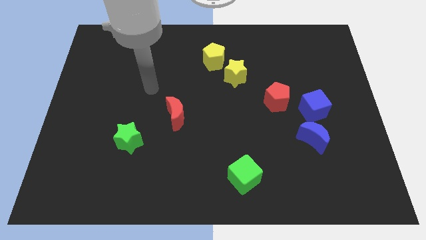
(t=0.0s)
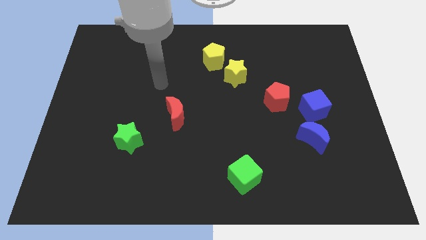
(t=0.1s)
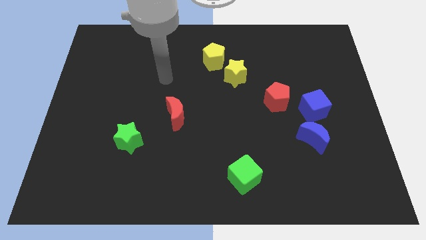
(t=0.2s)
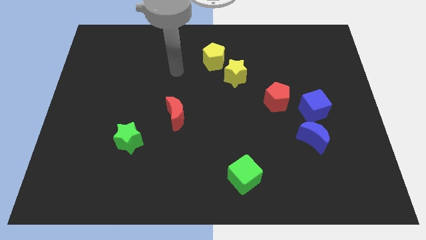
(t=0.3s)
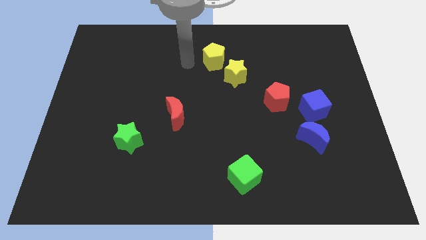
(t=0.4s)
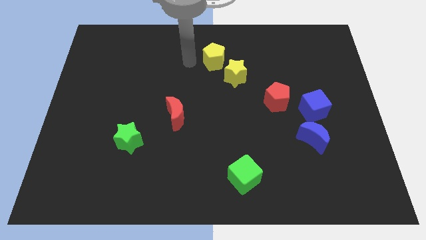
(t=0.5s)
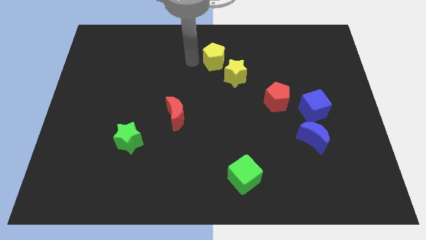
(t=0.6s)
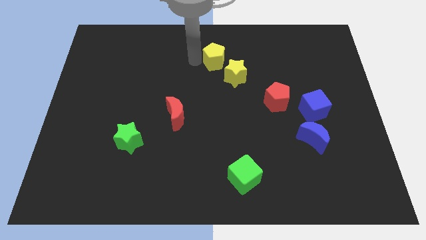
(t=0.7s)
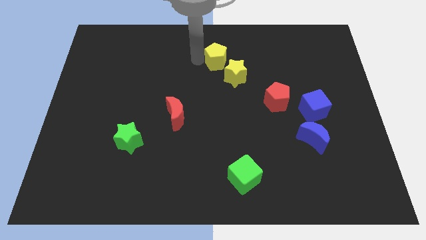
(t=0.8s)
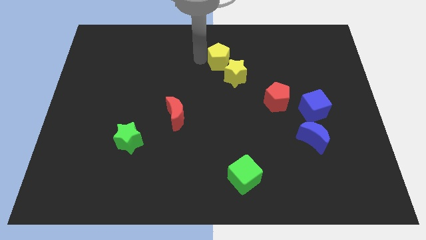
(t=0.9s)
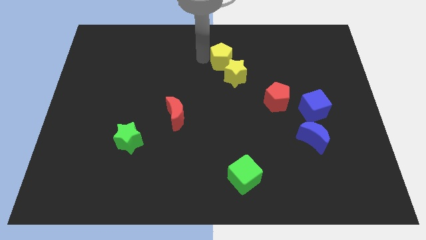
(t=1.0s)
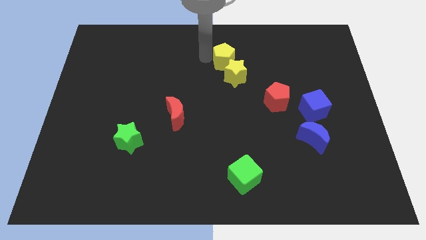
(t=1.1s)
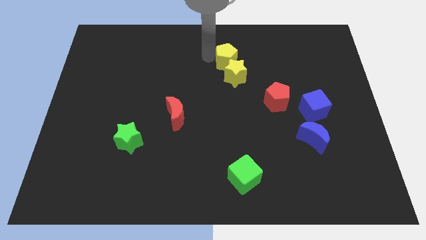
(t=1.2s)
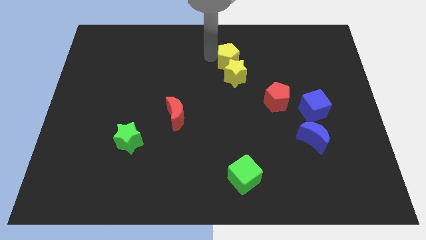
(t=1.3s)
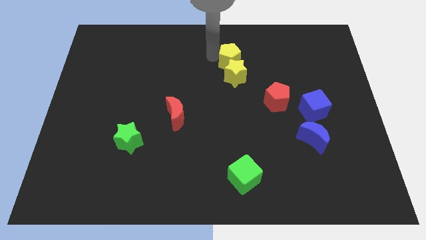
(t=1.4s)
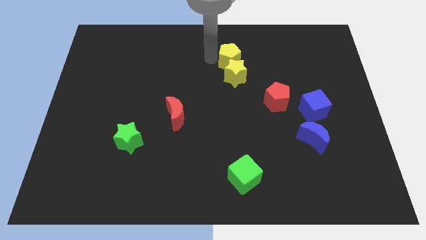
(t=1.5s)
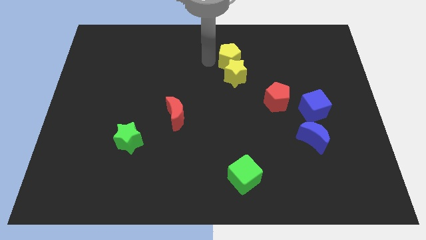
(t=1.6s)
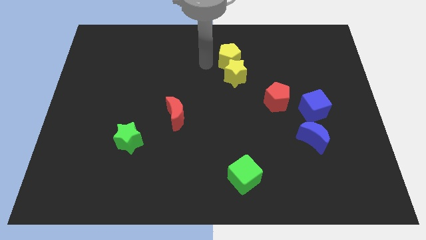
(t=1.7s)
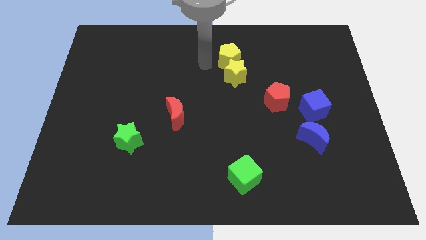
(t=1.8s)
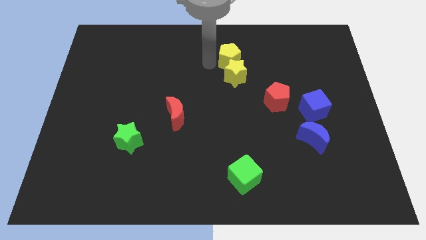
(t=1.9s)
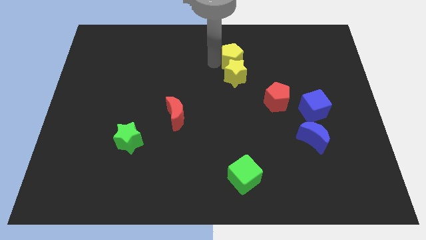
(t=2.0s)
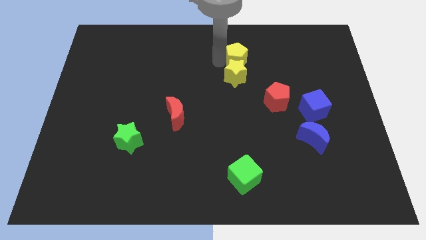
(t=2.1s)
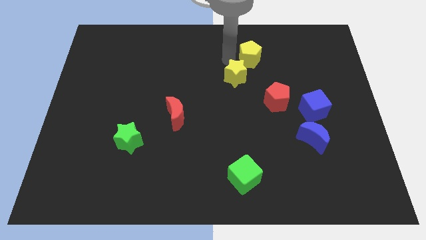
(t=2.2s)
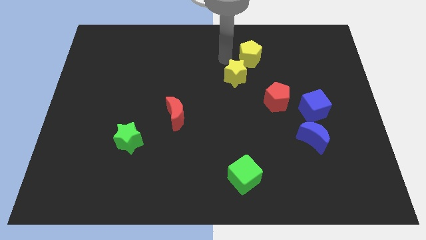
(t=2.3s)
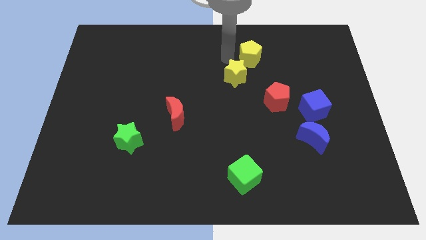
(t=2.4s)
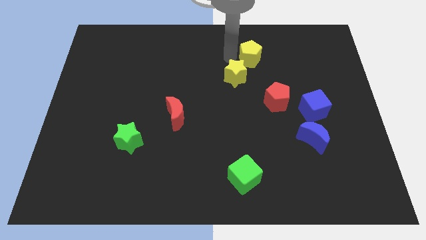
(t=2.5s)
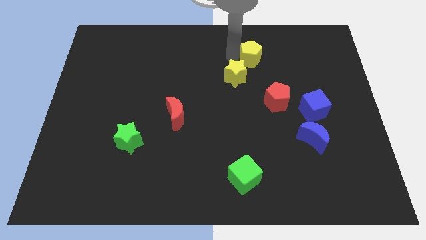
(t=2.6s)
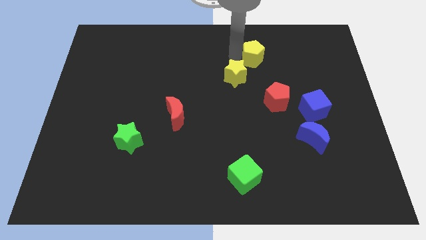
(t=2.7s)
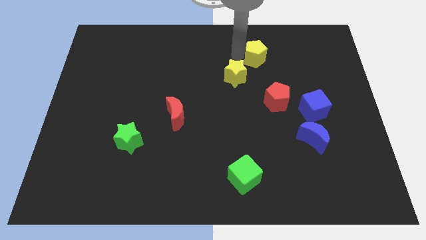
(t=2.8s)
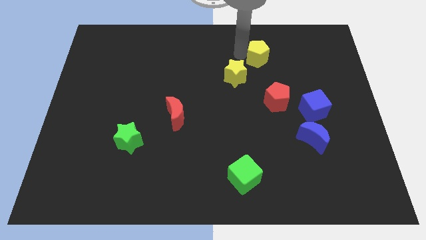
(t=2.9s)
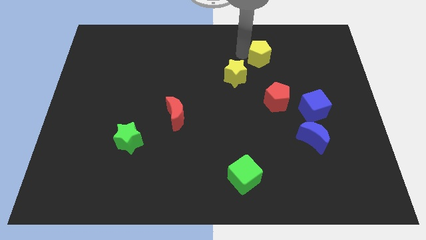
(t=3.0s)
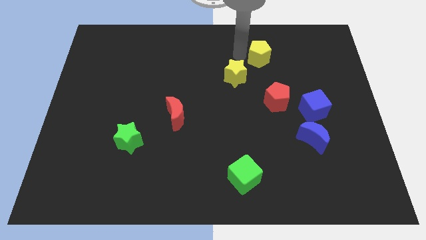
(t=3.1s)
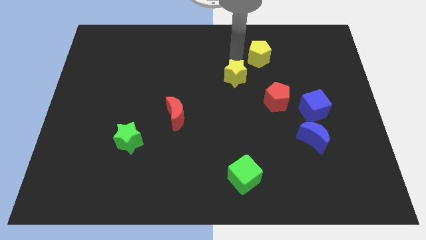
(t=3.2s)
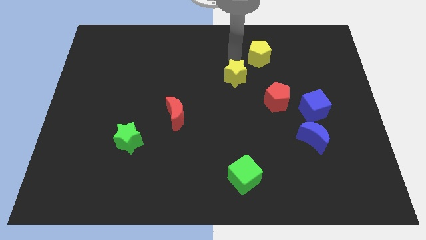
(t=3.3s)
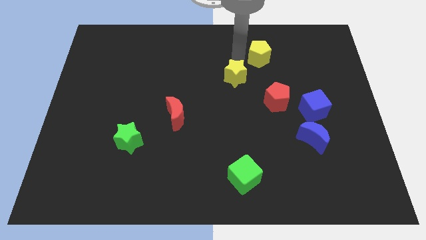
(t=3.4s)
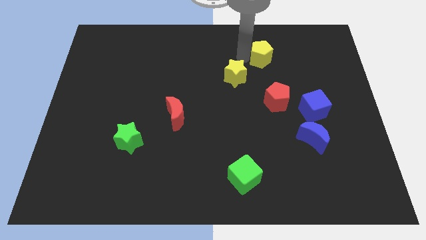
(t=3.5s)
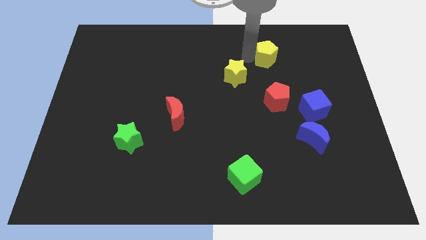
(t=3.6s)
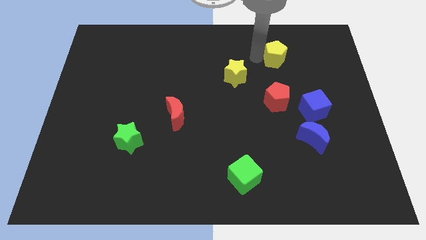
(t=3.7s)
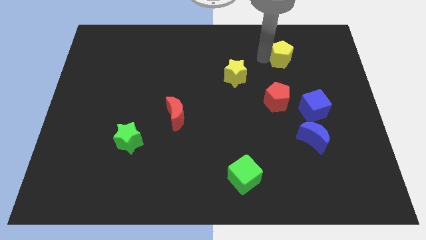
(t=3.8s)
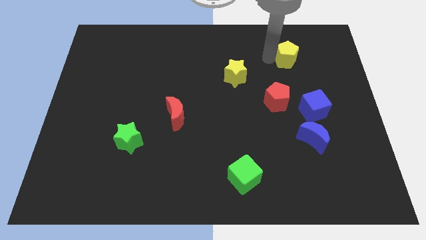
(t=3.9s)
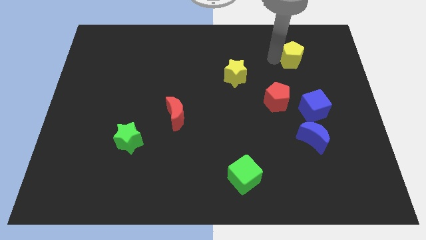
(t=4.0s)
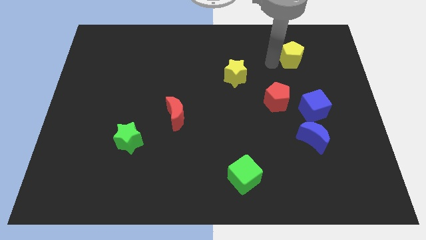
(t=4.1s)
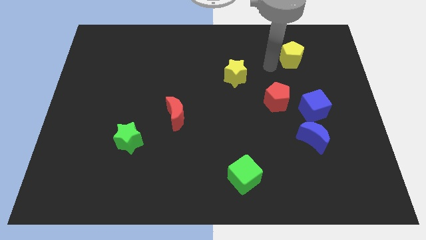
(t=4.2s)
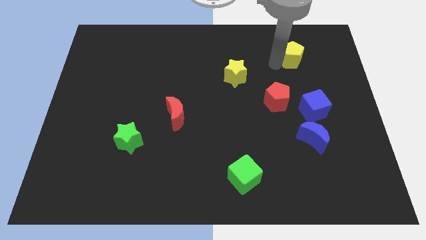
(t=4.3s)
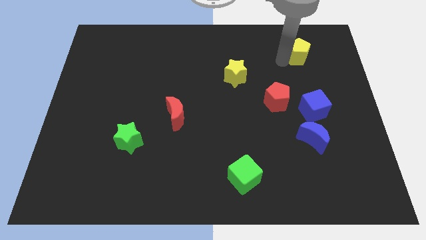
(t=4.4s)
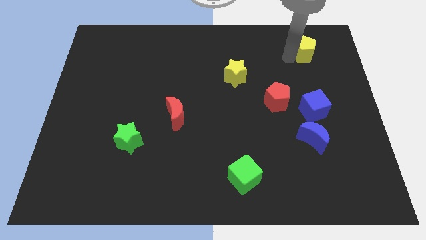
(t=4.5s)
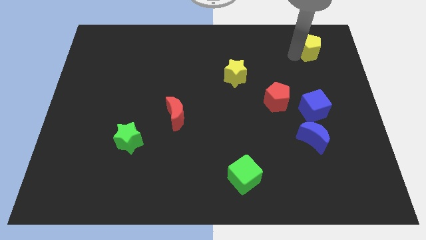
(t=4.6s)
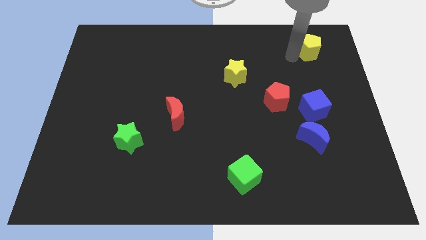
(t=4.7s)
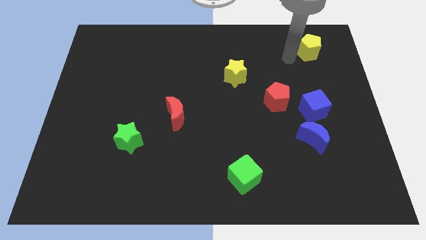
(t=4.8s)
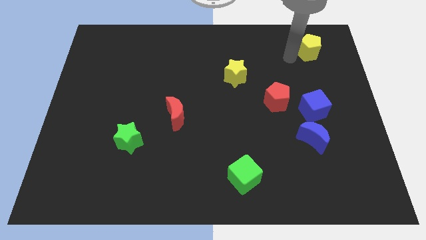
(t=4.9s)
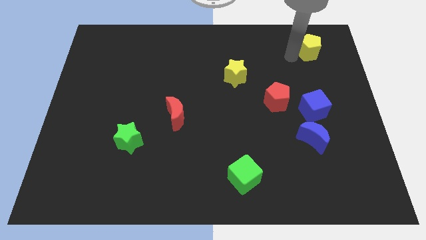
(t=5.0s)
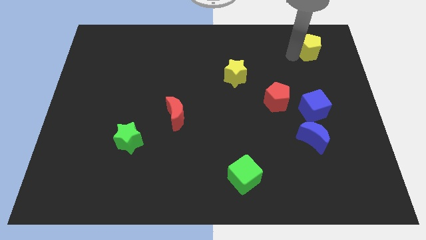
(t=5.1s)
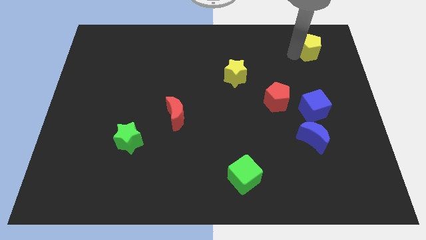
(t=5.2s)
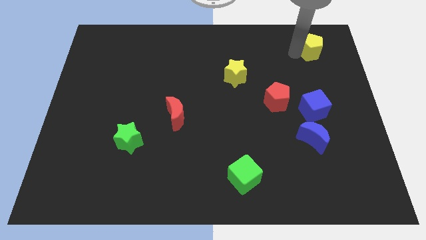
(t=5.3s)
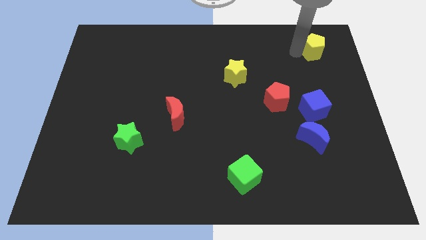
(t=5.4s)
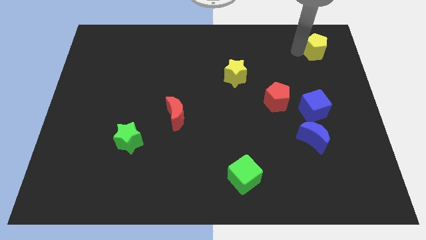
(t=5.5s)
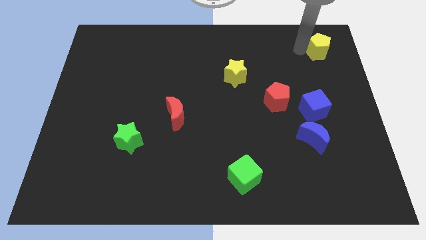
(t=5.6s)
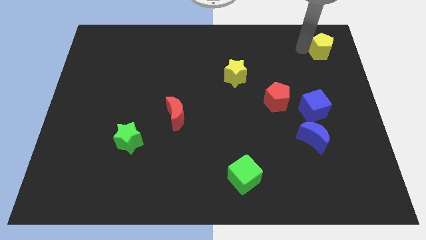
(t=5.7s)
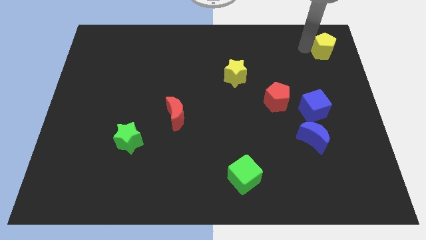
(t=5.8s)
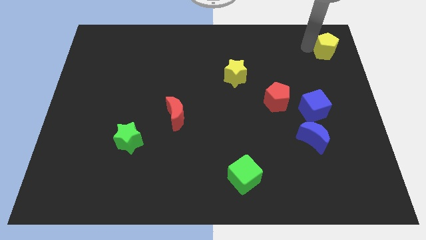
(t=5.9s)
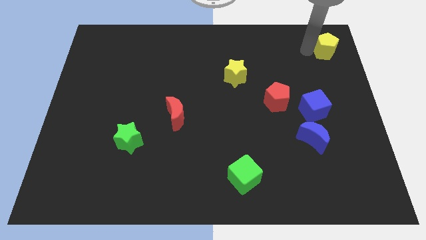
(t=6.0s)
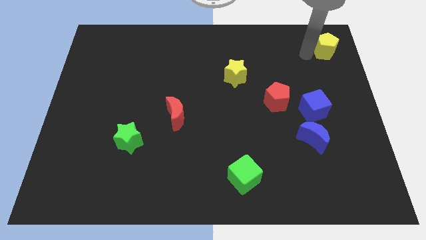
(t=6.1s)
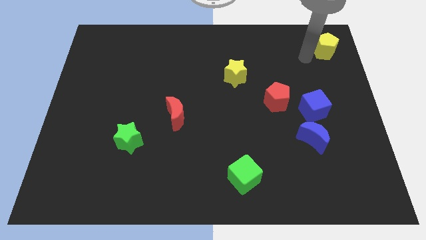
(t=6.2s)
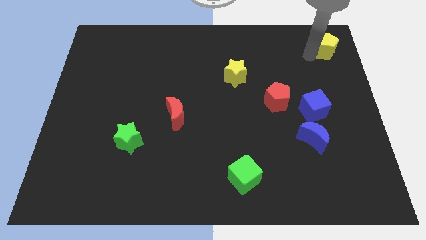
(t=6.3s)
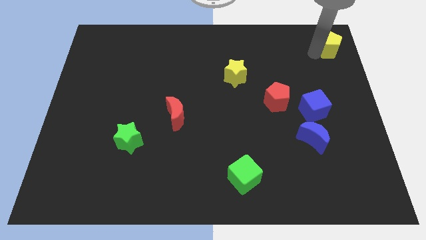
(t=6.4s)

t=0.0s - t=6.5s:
put the yellow pentagon to the upper right corner
